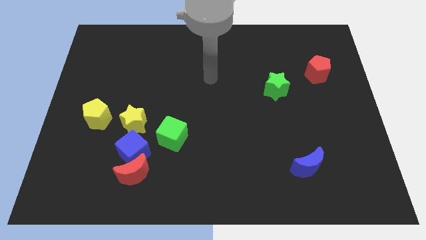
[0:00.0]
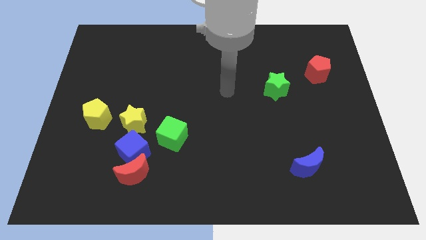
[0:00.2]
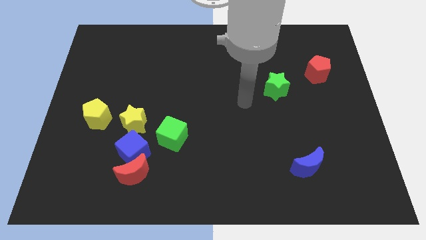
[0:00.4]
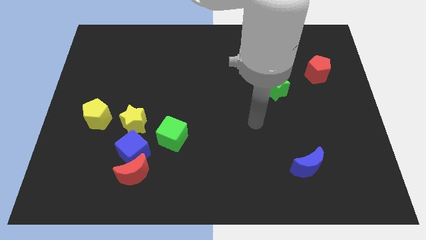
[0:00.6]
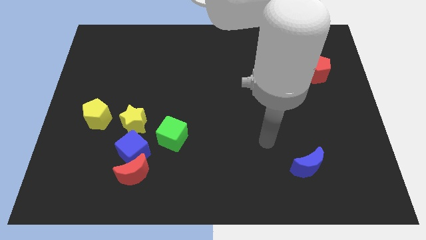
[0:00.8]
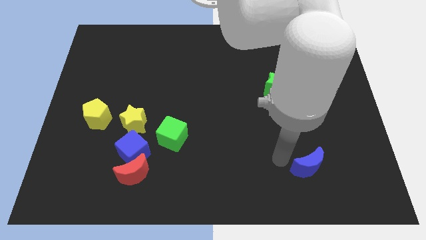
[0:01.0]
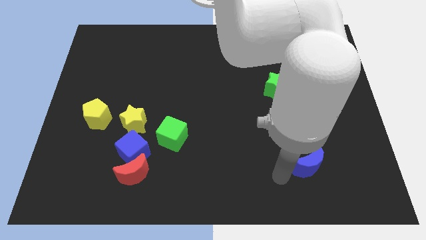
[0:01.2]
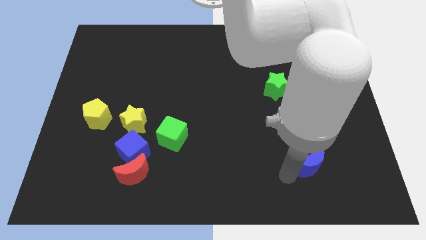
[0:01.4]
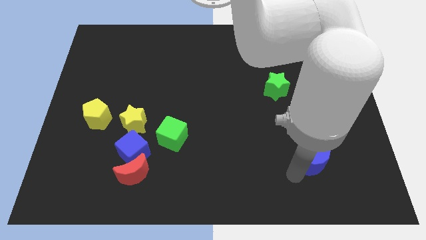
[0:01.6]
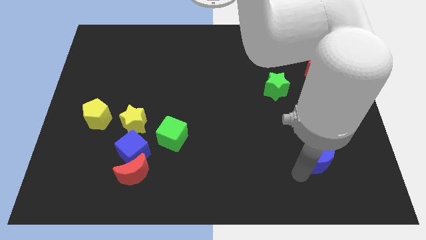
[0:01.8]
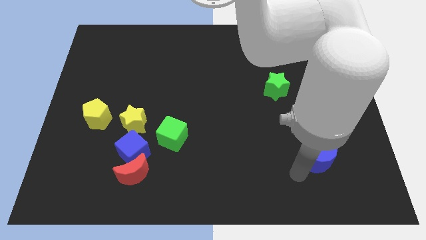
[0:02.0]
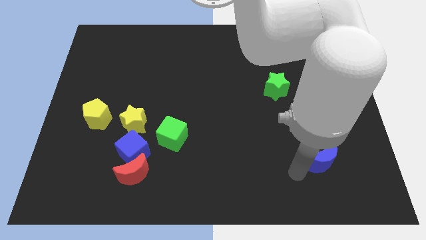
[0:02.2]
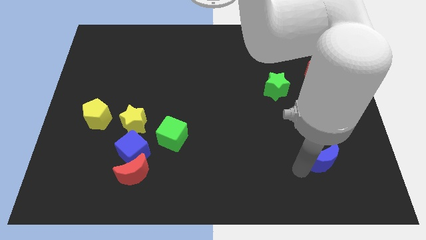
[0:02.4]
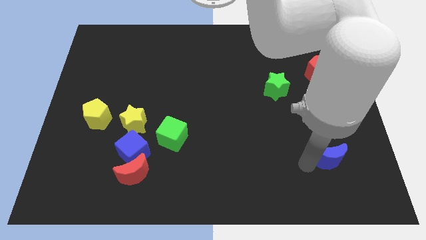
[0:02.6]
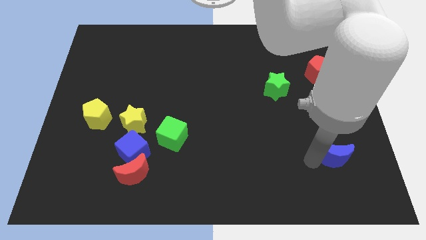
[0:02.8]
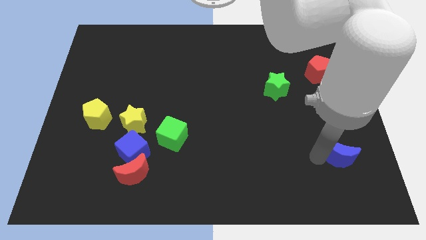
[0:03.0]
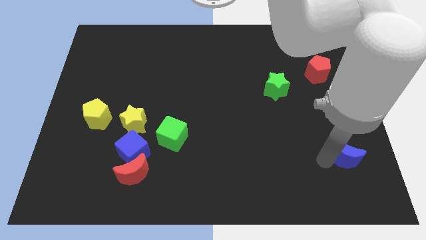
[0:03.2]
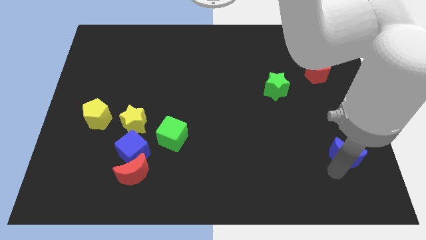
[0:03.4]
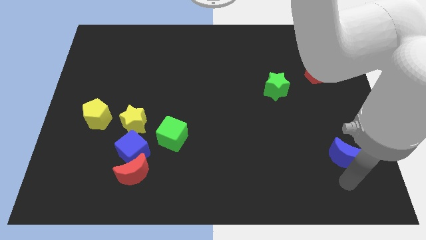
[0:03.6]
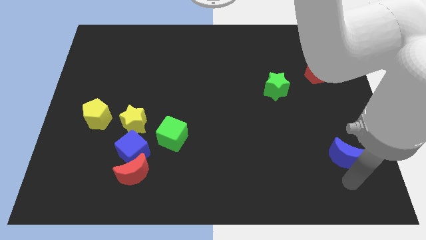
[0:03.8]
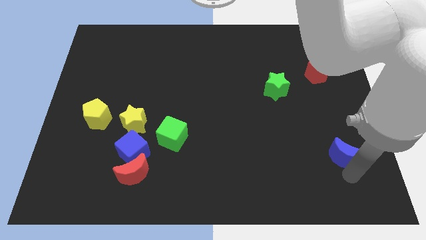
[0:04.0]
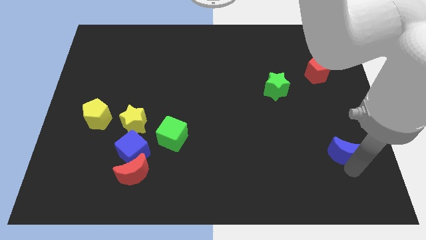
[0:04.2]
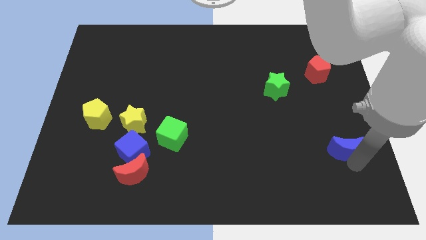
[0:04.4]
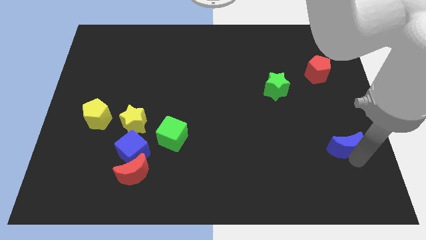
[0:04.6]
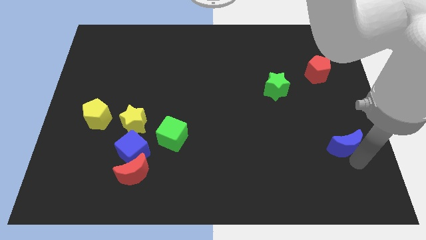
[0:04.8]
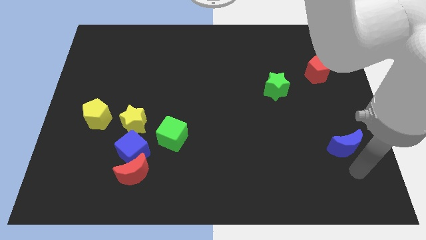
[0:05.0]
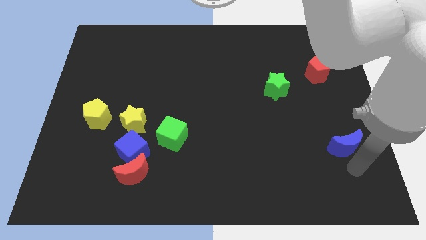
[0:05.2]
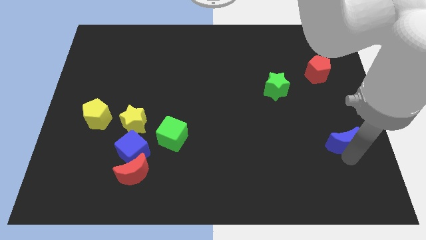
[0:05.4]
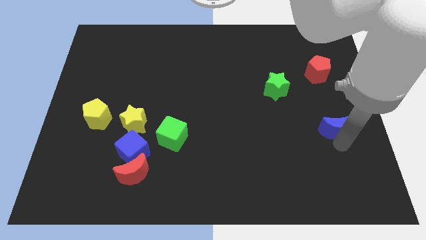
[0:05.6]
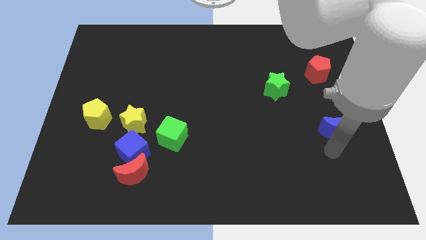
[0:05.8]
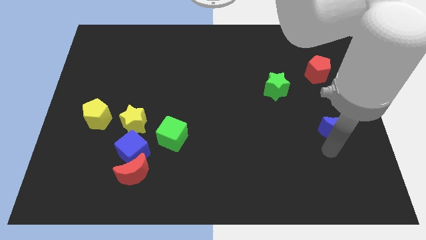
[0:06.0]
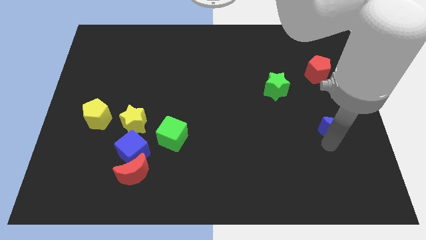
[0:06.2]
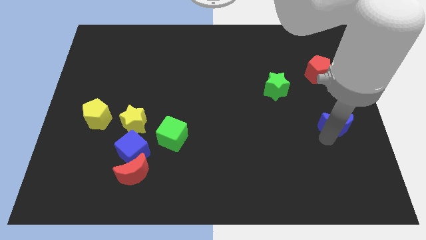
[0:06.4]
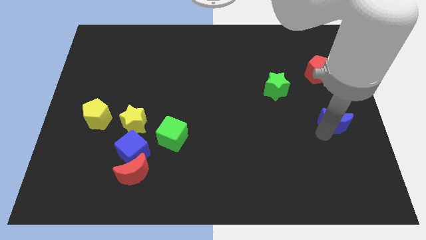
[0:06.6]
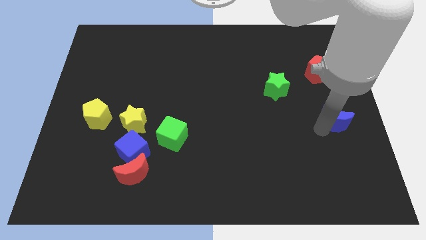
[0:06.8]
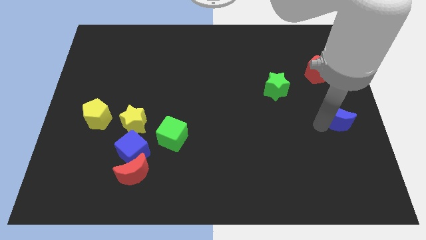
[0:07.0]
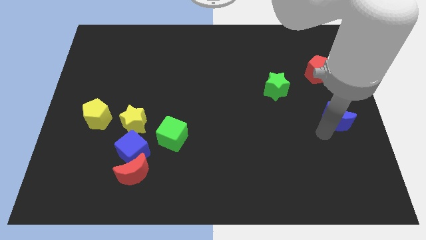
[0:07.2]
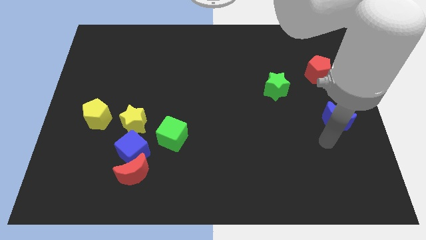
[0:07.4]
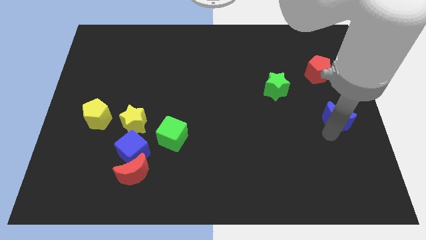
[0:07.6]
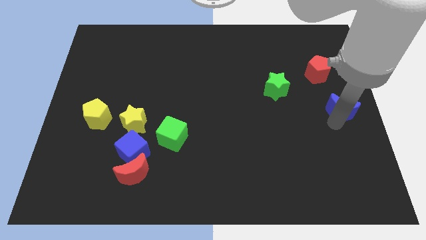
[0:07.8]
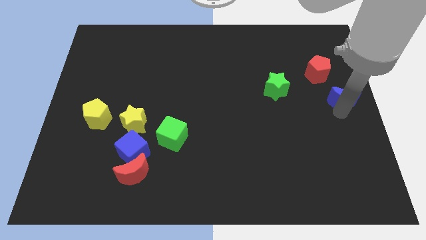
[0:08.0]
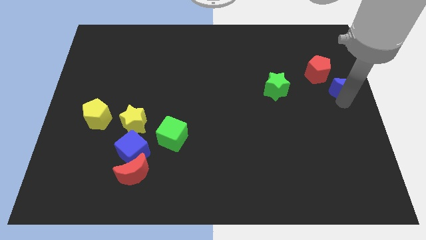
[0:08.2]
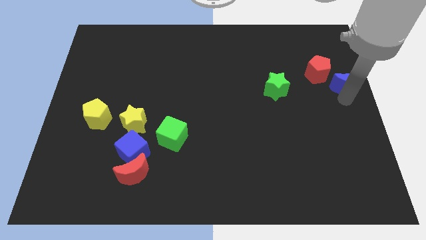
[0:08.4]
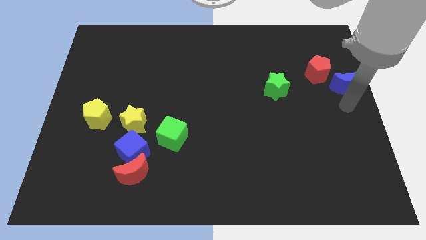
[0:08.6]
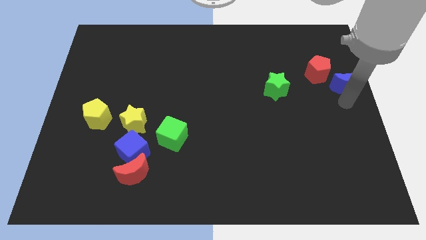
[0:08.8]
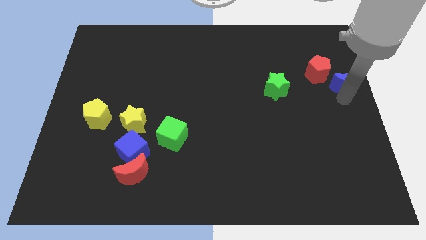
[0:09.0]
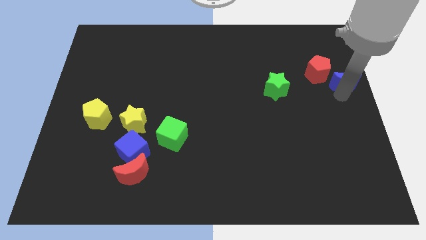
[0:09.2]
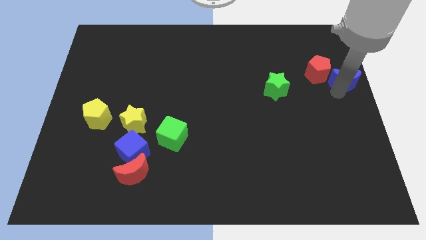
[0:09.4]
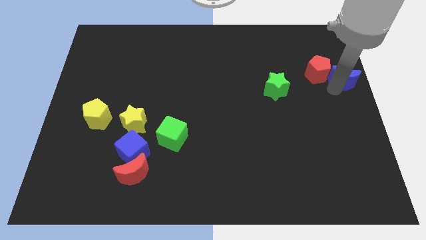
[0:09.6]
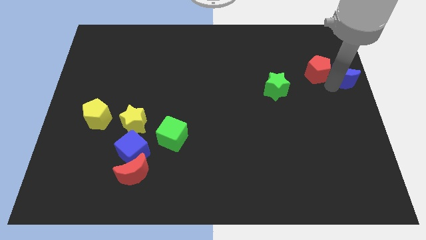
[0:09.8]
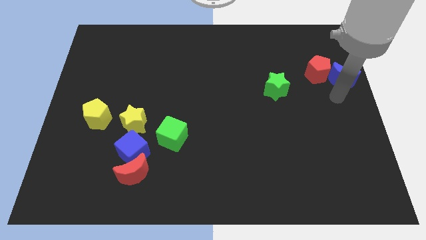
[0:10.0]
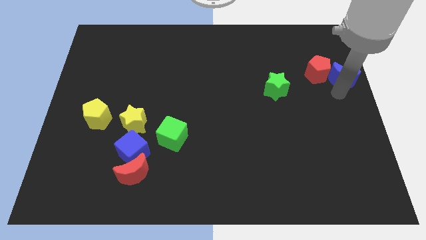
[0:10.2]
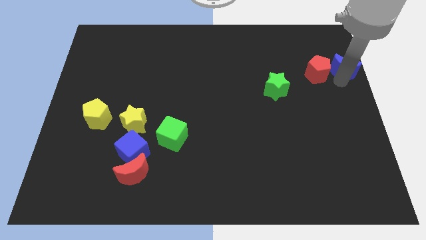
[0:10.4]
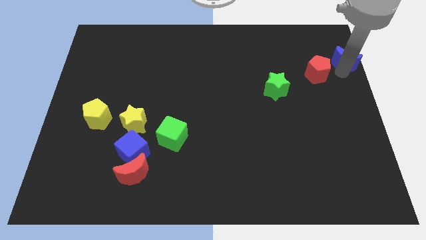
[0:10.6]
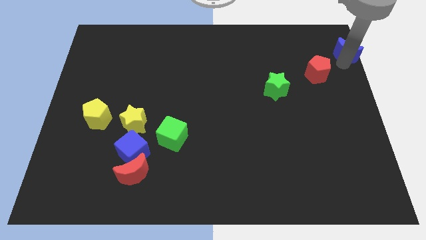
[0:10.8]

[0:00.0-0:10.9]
push the blue moon to the top right

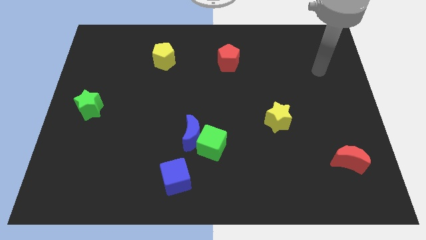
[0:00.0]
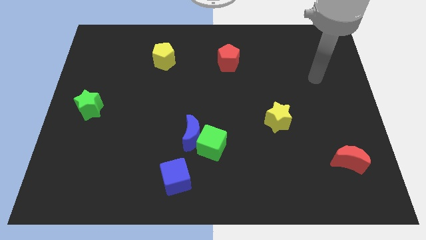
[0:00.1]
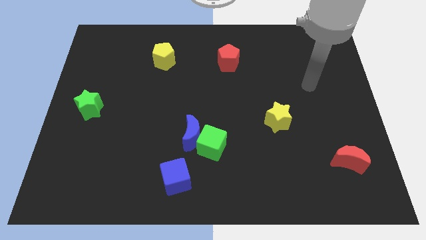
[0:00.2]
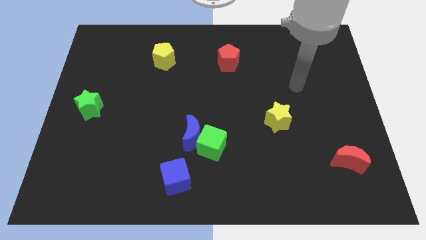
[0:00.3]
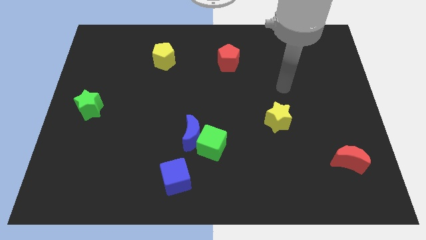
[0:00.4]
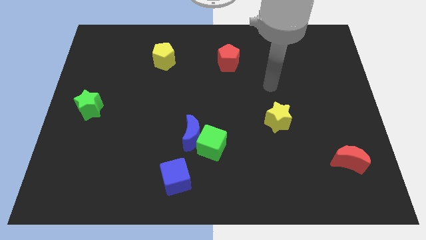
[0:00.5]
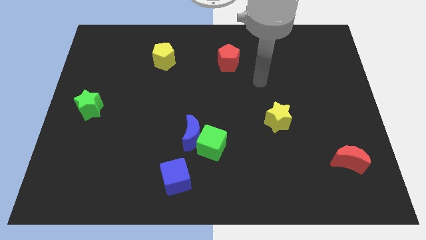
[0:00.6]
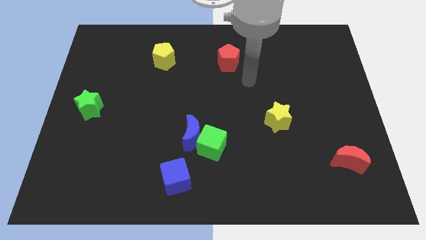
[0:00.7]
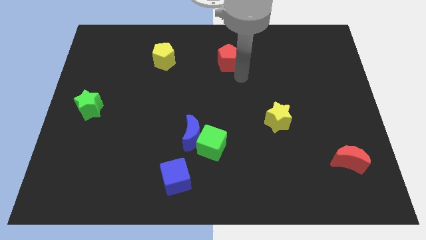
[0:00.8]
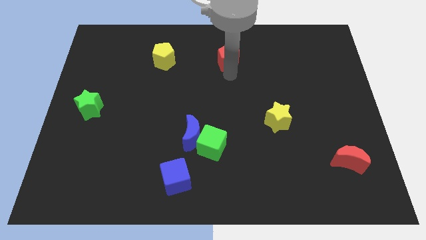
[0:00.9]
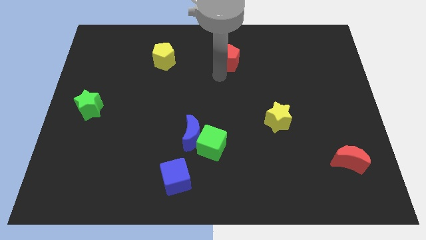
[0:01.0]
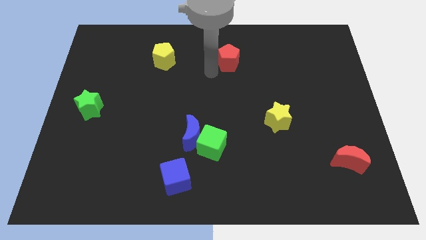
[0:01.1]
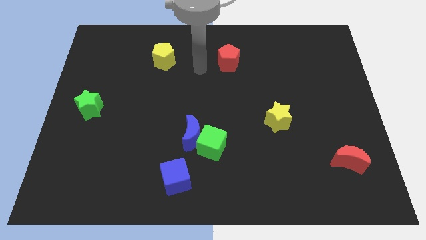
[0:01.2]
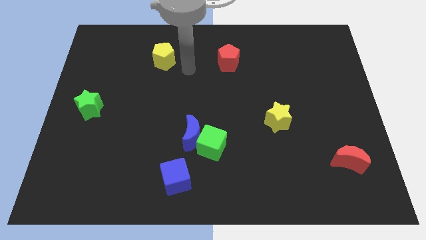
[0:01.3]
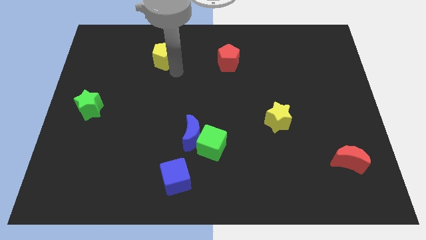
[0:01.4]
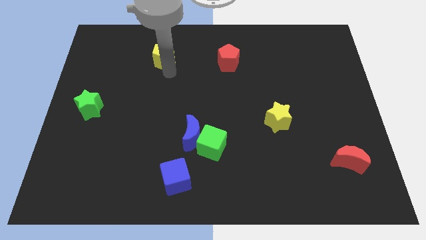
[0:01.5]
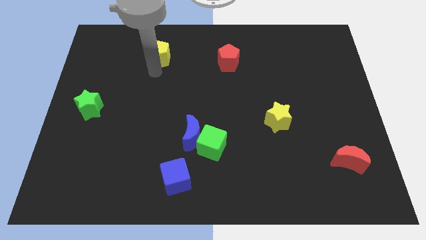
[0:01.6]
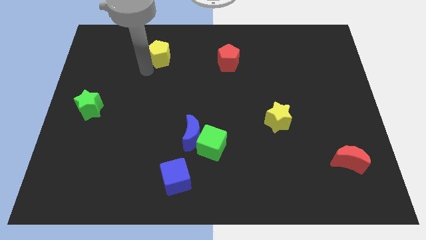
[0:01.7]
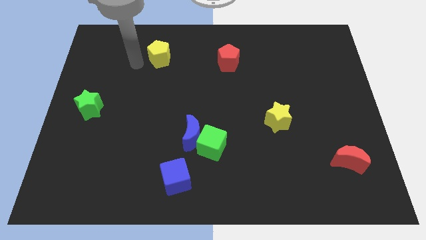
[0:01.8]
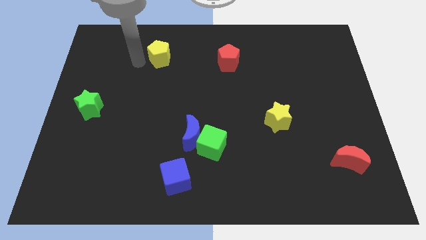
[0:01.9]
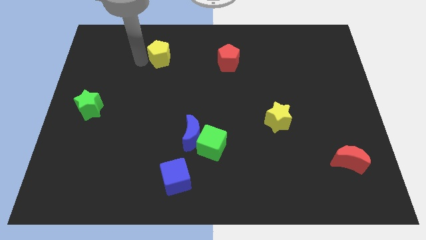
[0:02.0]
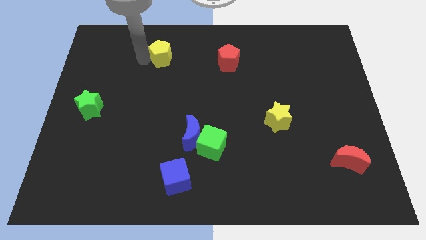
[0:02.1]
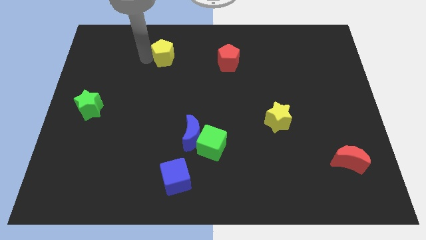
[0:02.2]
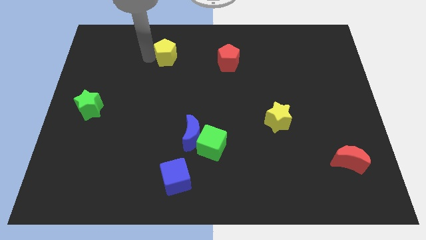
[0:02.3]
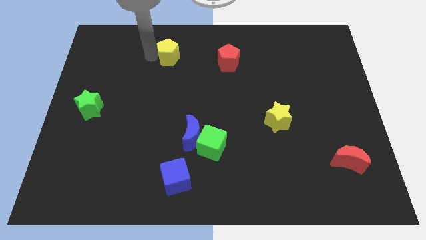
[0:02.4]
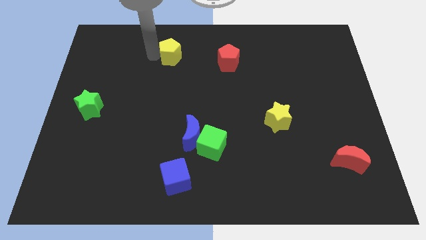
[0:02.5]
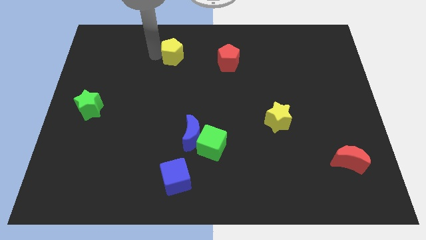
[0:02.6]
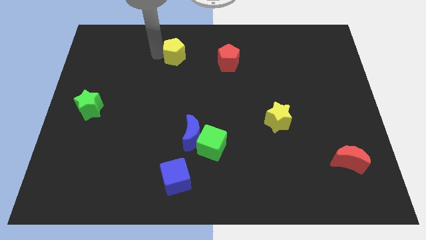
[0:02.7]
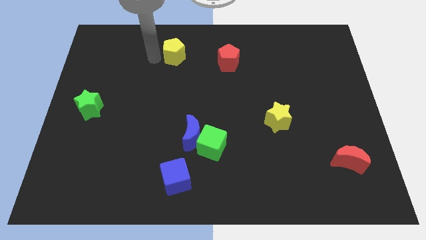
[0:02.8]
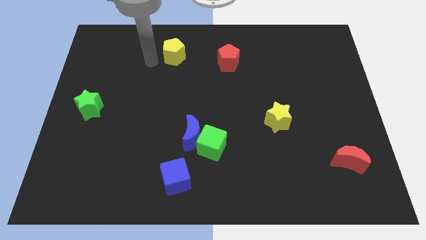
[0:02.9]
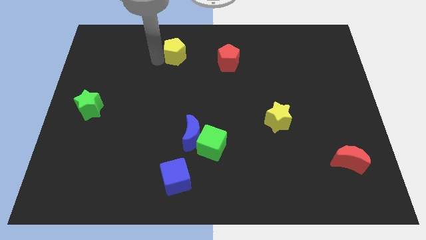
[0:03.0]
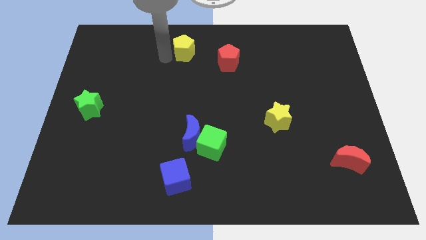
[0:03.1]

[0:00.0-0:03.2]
move the yellow pentagon to the top side
